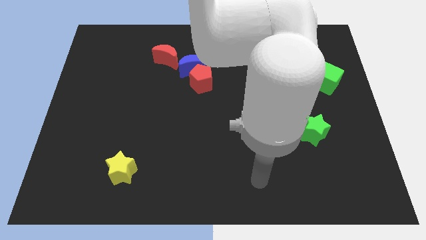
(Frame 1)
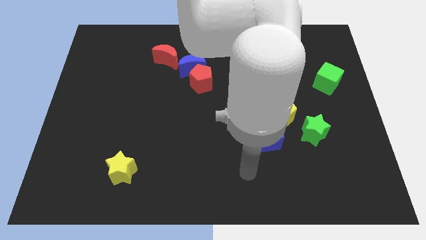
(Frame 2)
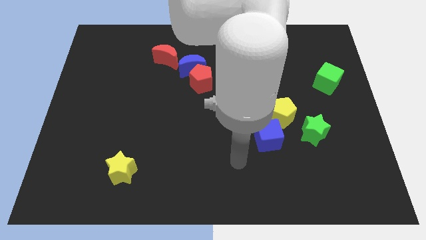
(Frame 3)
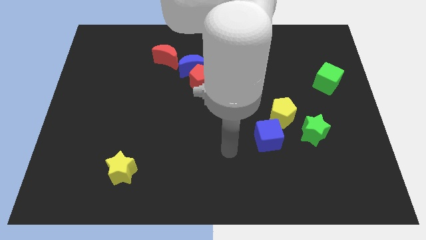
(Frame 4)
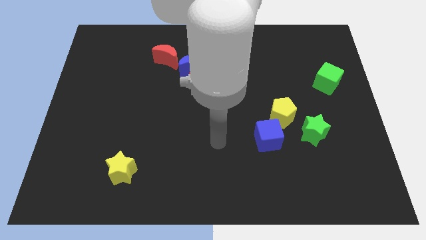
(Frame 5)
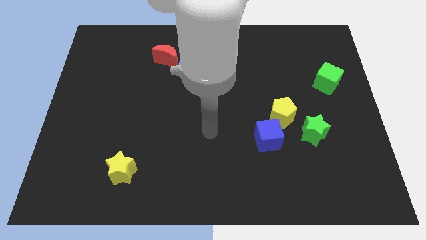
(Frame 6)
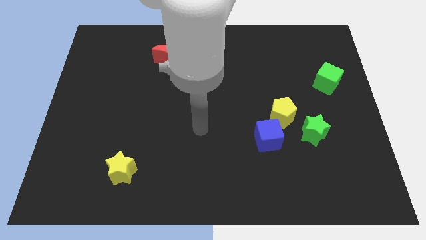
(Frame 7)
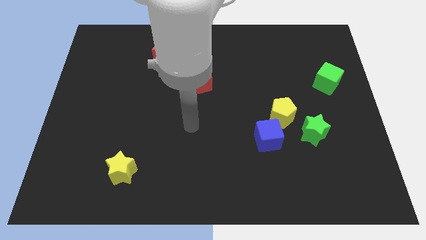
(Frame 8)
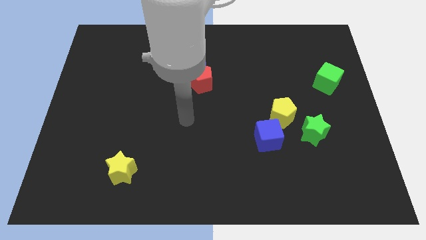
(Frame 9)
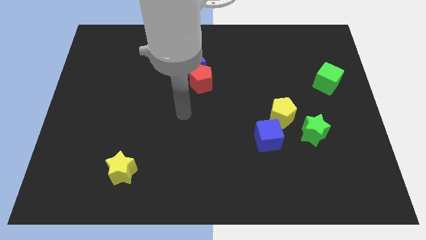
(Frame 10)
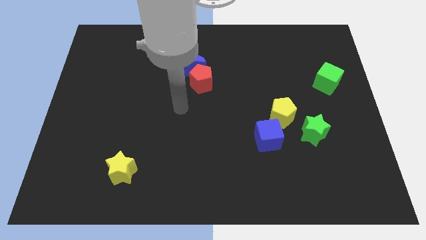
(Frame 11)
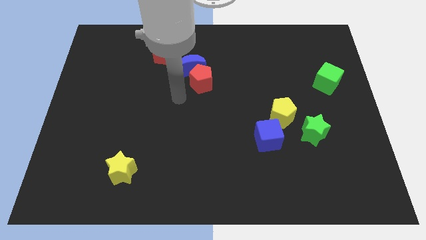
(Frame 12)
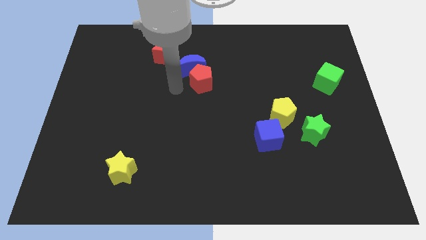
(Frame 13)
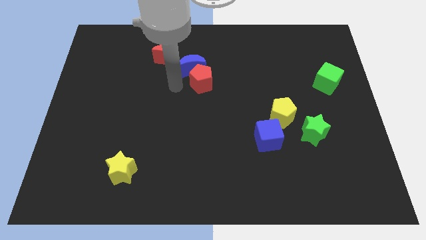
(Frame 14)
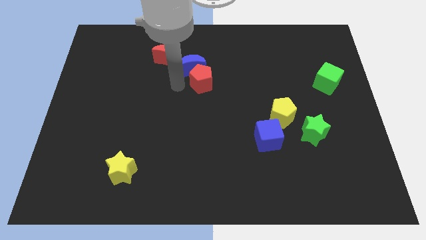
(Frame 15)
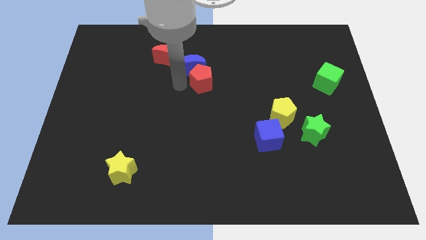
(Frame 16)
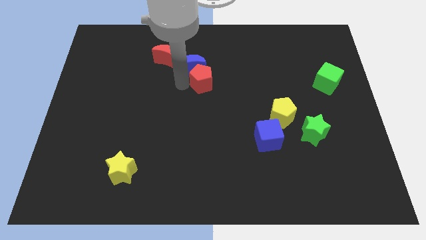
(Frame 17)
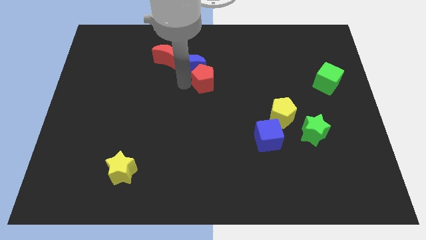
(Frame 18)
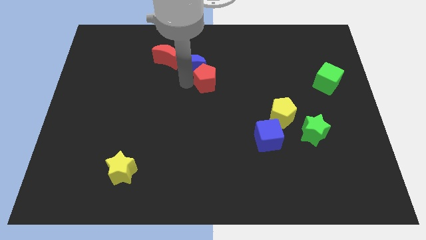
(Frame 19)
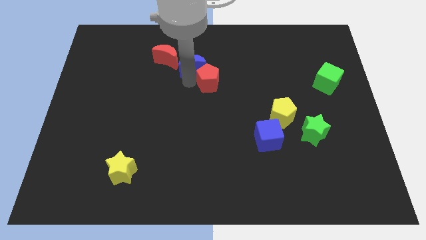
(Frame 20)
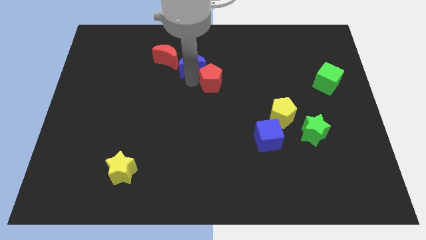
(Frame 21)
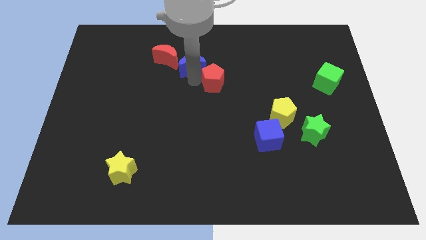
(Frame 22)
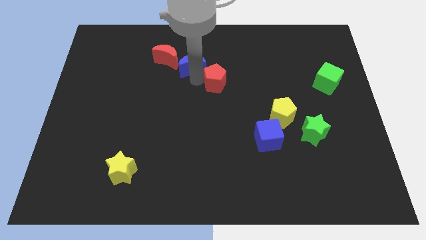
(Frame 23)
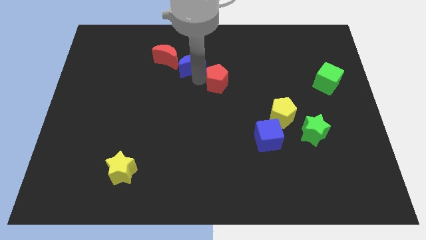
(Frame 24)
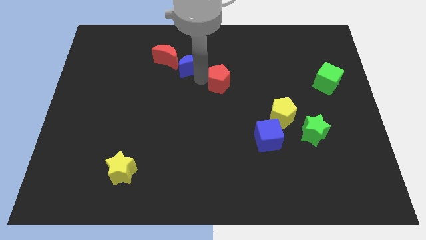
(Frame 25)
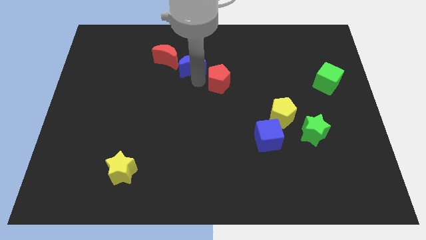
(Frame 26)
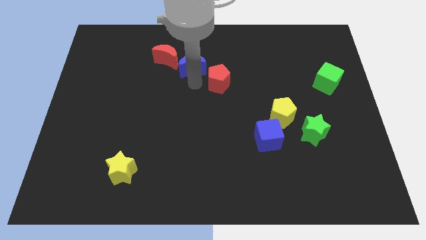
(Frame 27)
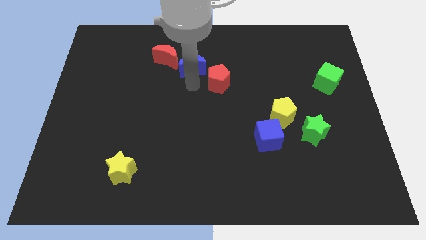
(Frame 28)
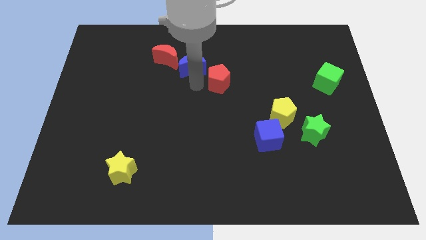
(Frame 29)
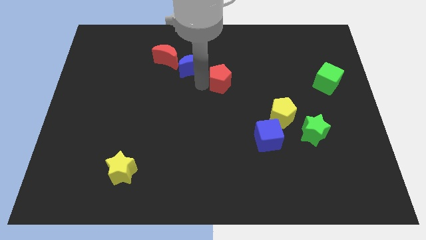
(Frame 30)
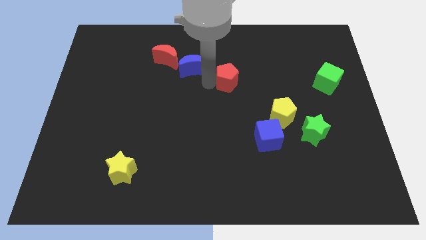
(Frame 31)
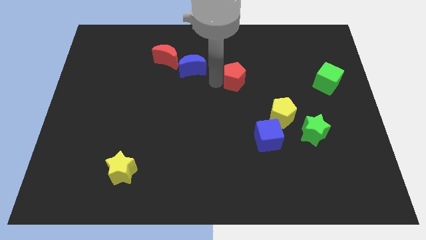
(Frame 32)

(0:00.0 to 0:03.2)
slightly push the red pentagon to the right

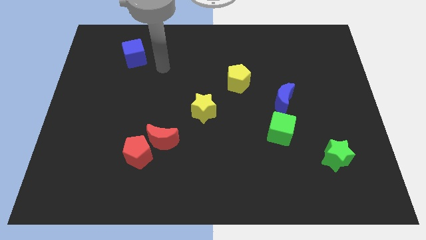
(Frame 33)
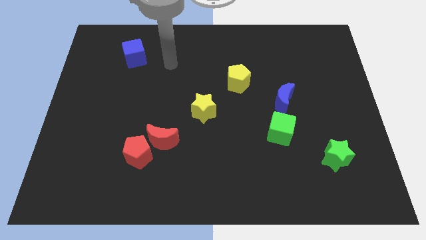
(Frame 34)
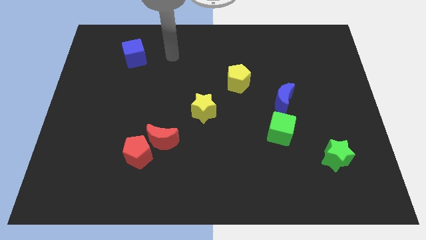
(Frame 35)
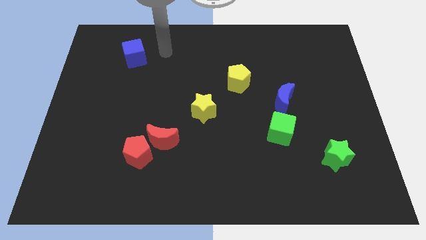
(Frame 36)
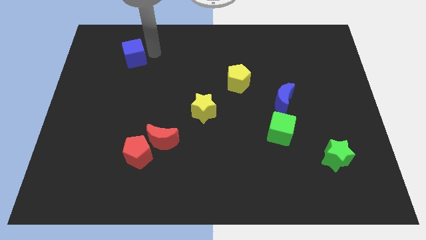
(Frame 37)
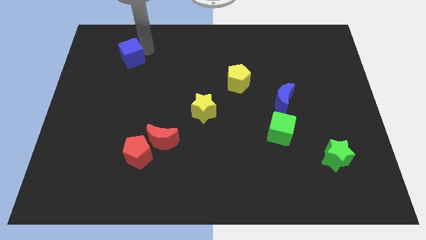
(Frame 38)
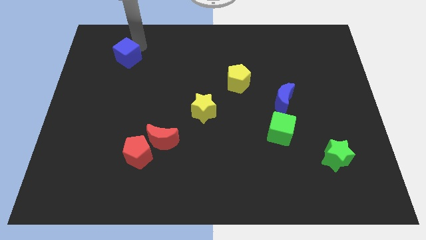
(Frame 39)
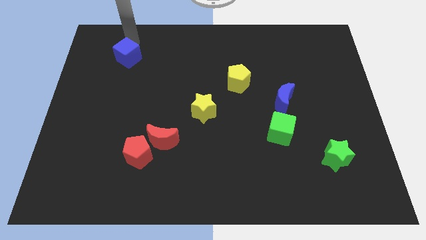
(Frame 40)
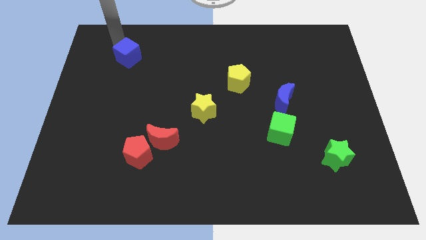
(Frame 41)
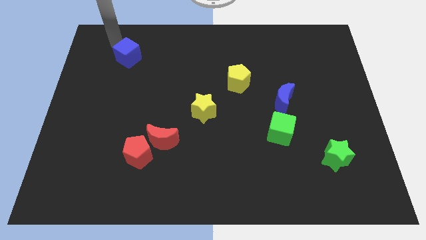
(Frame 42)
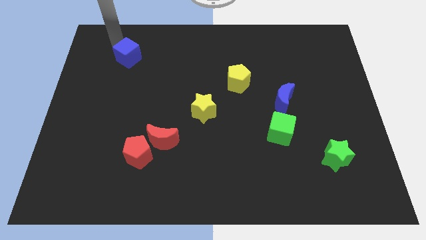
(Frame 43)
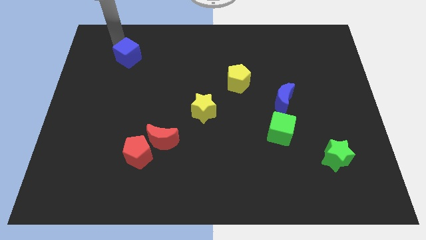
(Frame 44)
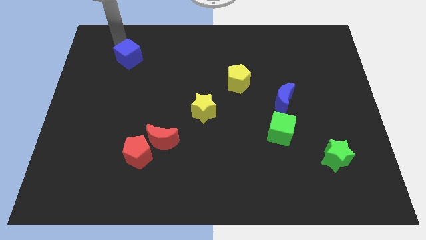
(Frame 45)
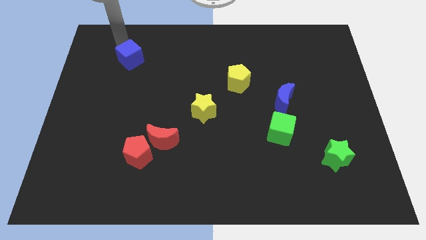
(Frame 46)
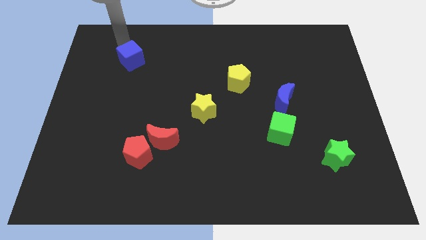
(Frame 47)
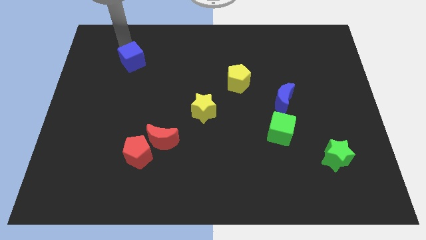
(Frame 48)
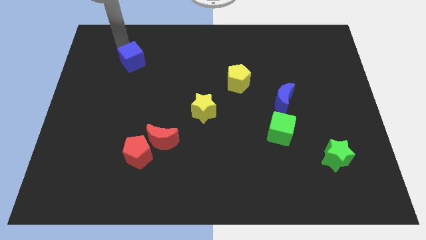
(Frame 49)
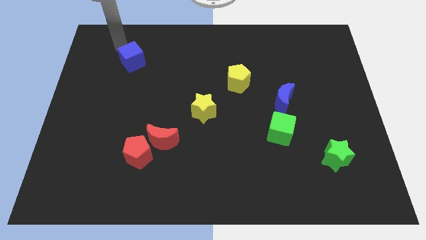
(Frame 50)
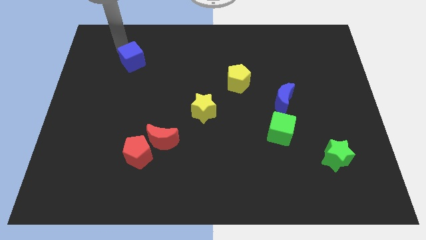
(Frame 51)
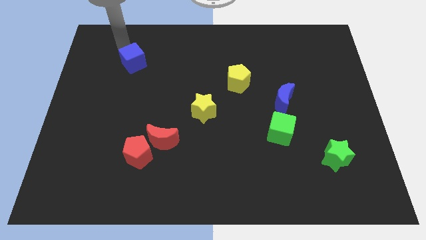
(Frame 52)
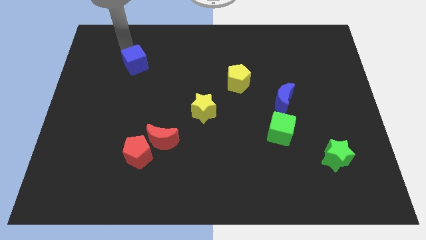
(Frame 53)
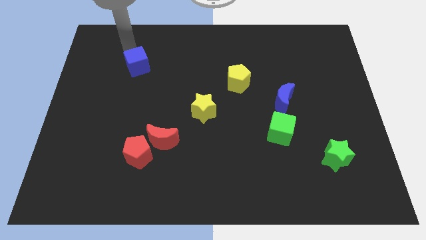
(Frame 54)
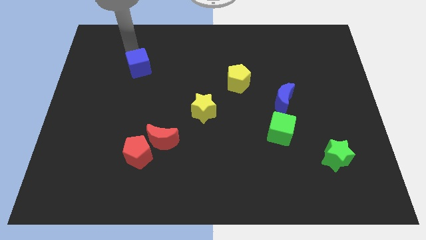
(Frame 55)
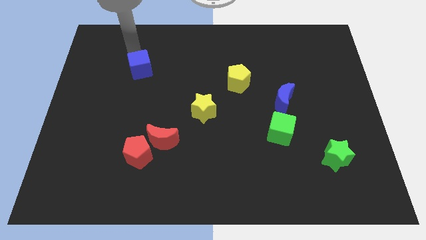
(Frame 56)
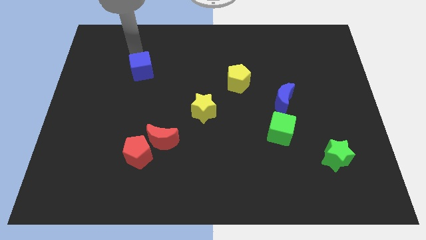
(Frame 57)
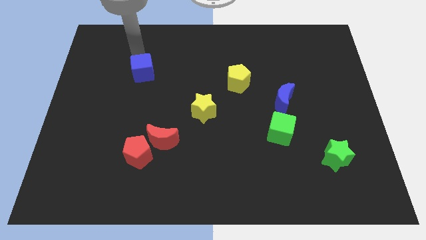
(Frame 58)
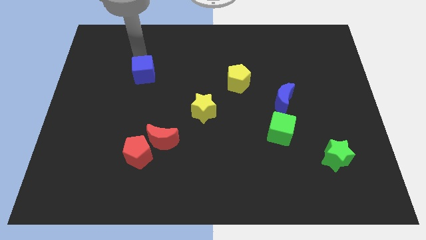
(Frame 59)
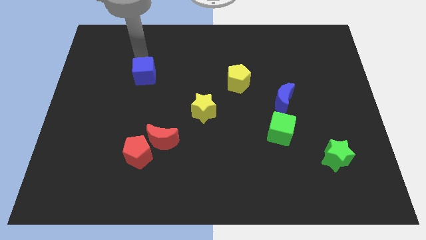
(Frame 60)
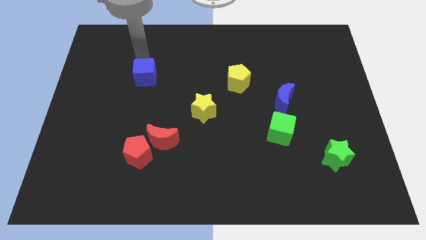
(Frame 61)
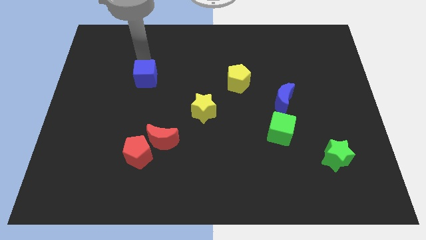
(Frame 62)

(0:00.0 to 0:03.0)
move the blue cube down a little bit

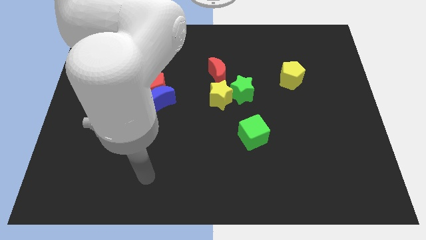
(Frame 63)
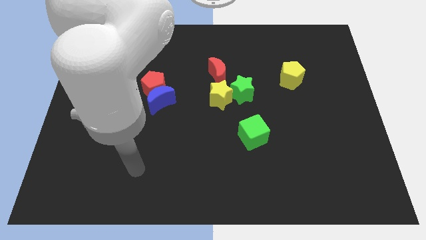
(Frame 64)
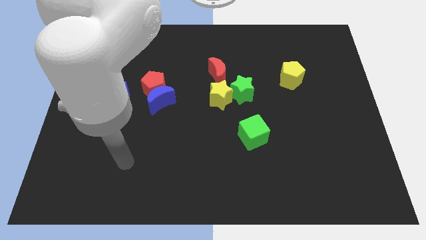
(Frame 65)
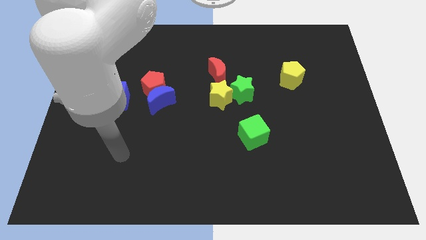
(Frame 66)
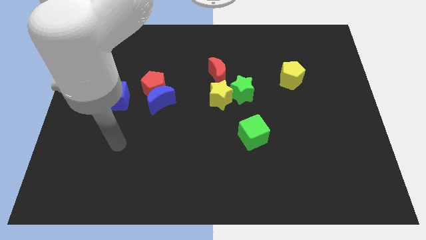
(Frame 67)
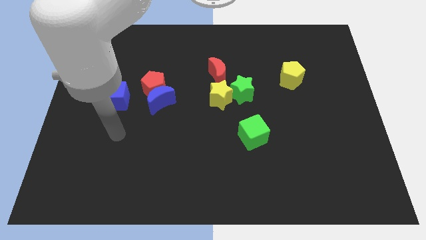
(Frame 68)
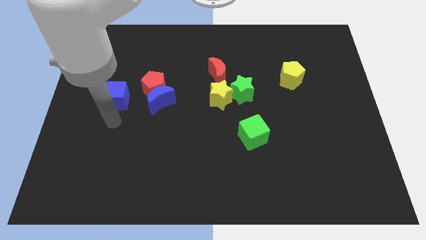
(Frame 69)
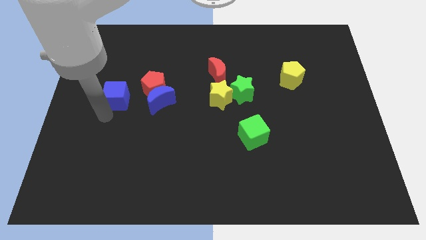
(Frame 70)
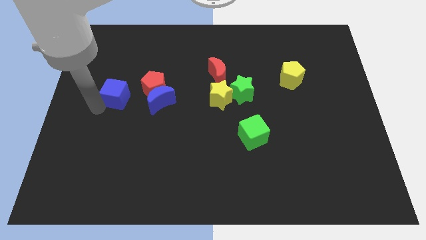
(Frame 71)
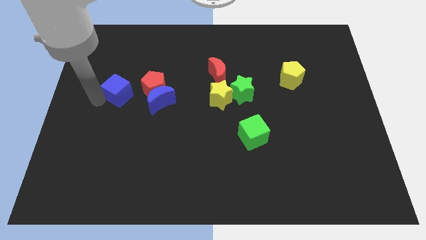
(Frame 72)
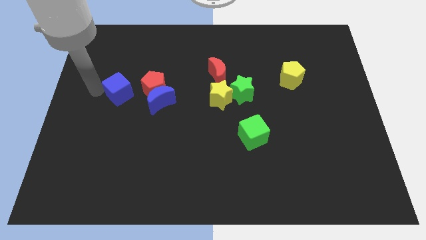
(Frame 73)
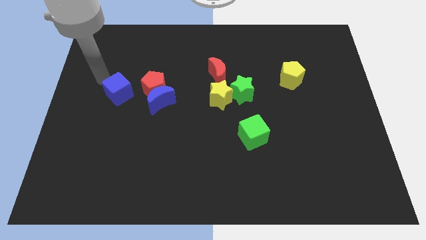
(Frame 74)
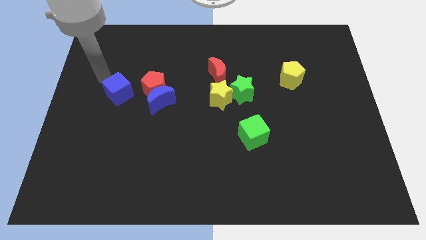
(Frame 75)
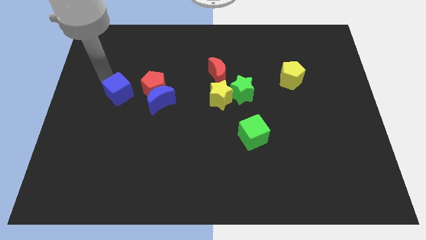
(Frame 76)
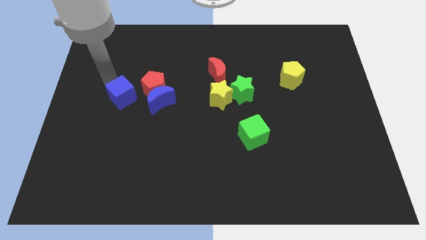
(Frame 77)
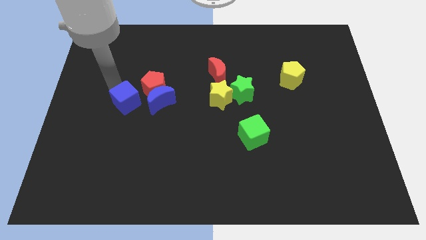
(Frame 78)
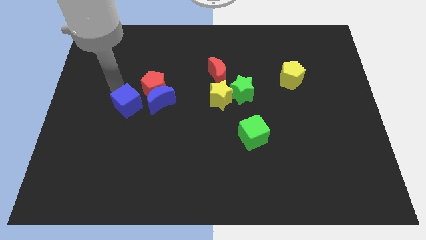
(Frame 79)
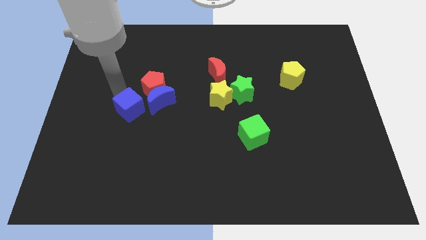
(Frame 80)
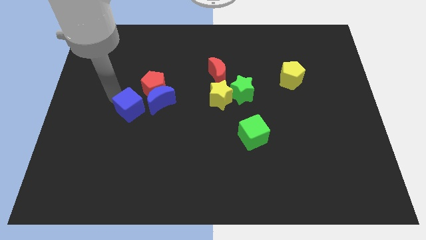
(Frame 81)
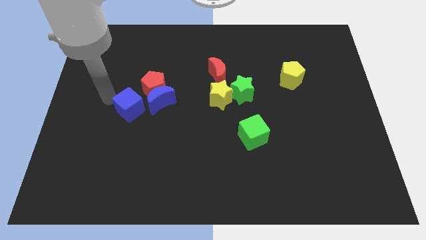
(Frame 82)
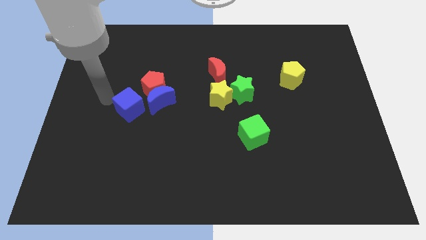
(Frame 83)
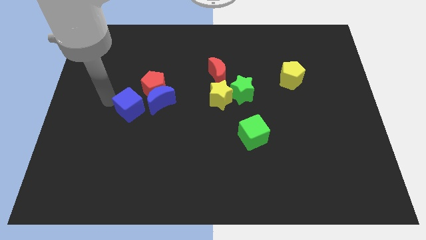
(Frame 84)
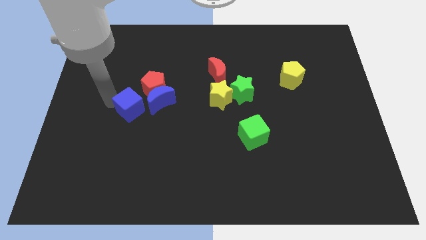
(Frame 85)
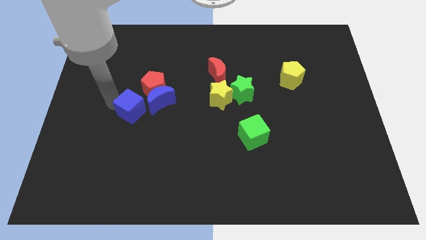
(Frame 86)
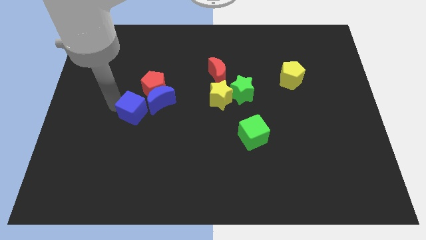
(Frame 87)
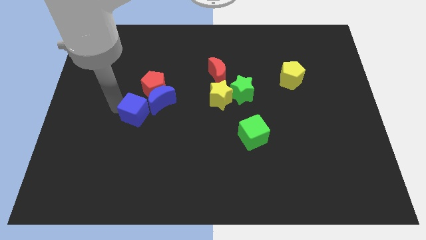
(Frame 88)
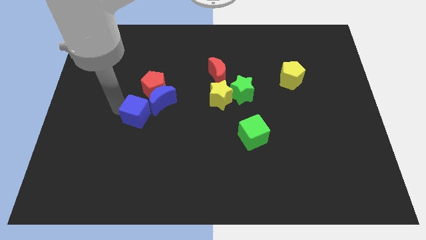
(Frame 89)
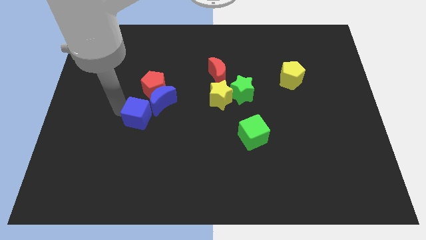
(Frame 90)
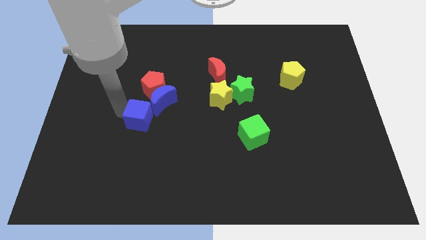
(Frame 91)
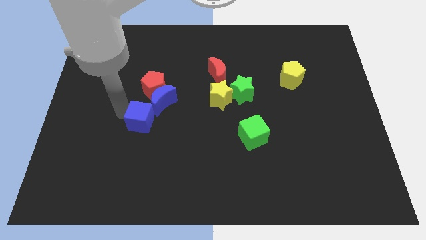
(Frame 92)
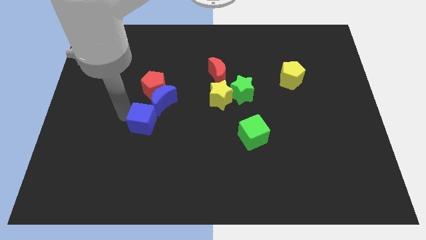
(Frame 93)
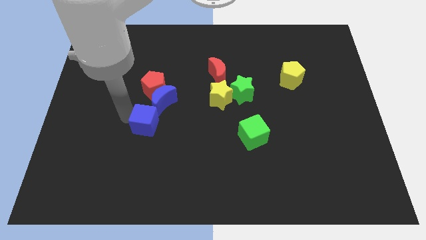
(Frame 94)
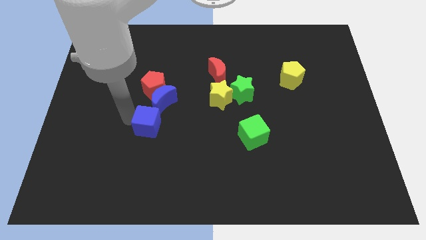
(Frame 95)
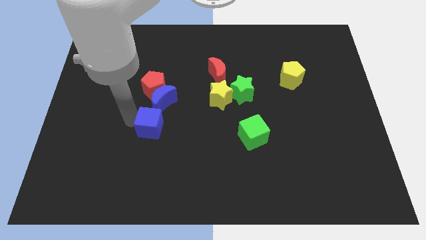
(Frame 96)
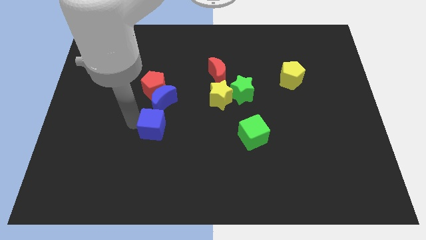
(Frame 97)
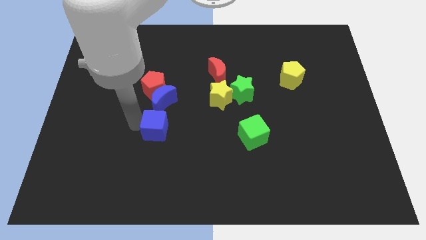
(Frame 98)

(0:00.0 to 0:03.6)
slide the blue cube slightly to the right
